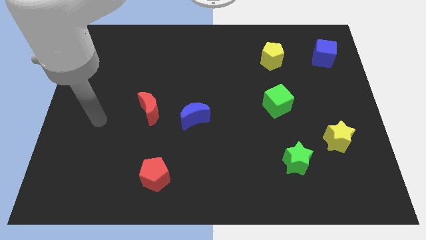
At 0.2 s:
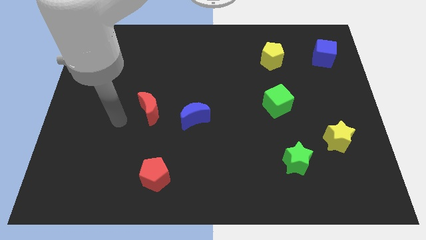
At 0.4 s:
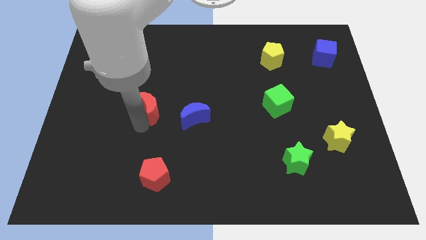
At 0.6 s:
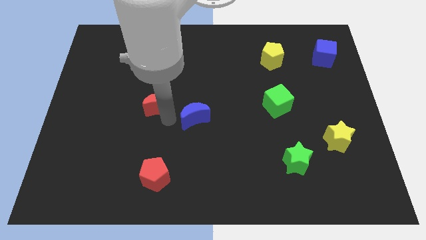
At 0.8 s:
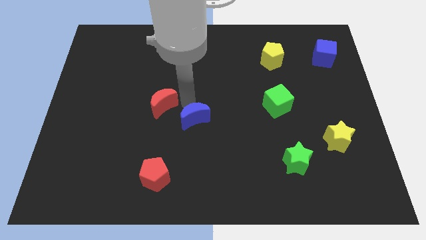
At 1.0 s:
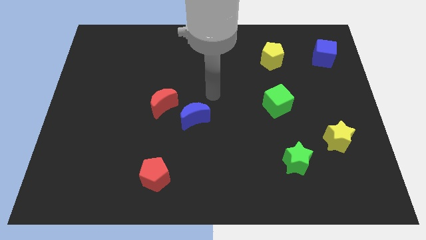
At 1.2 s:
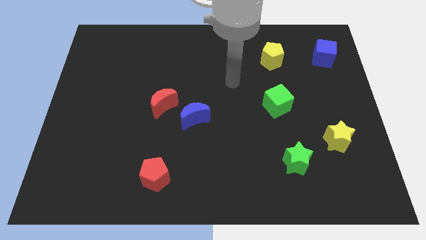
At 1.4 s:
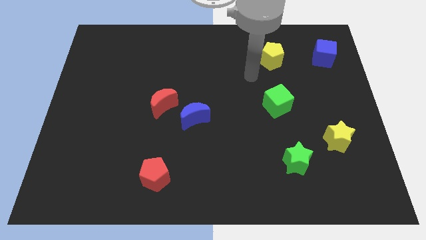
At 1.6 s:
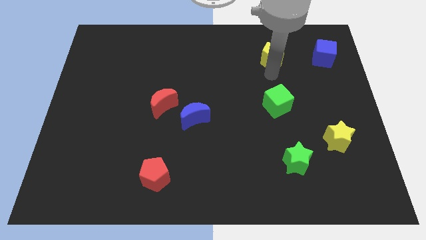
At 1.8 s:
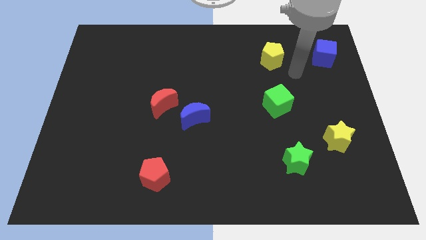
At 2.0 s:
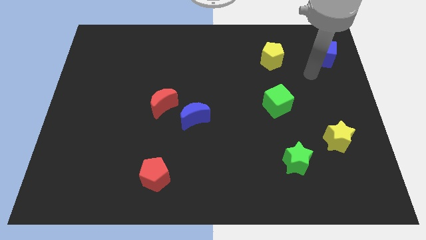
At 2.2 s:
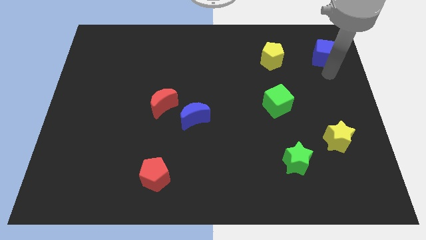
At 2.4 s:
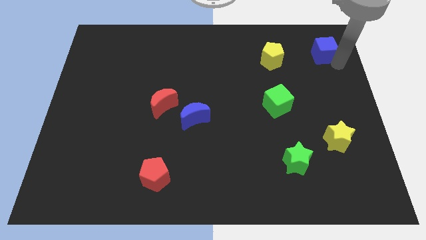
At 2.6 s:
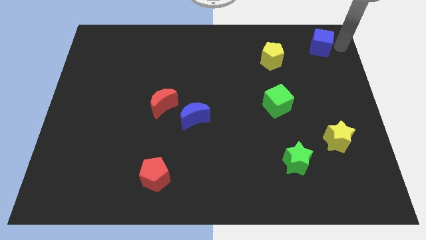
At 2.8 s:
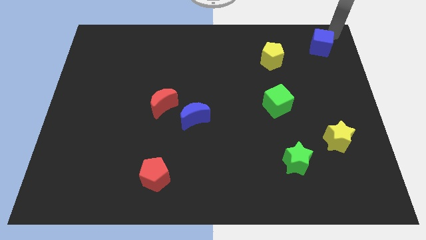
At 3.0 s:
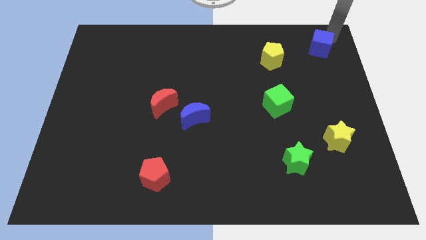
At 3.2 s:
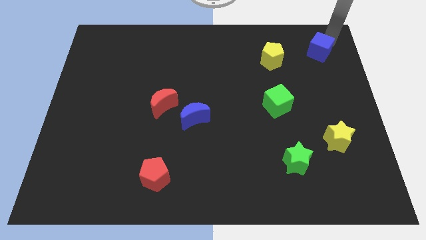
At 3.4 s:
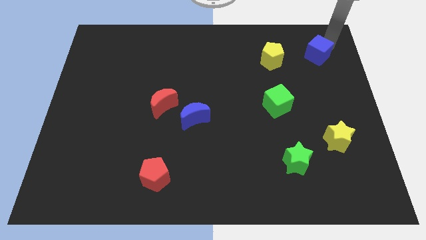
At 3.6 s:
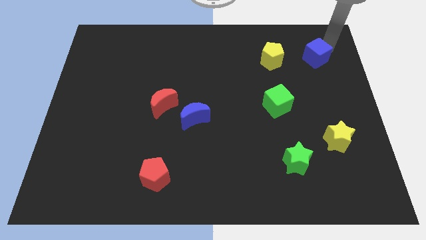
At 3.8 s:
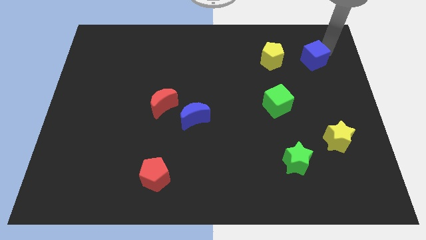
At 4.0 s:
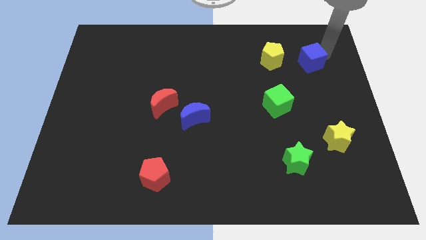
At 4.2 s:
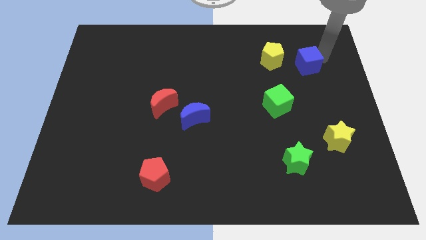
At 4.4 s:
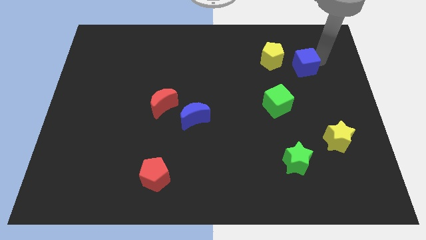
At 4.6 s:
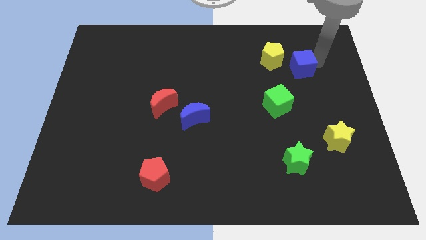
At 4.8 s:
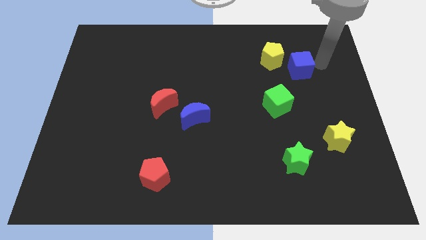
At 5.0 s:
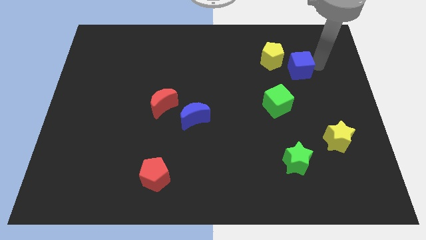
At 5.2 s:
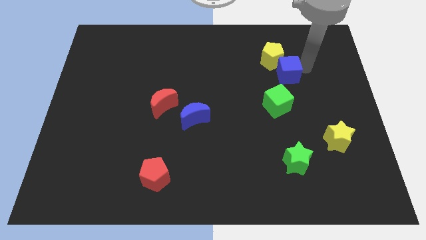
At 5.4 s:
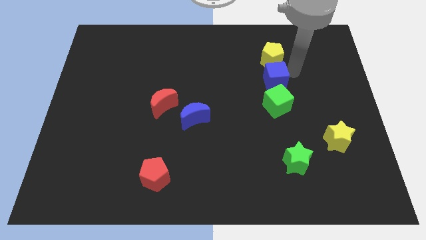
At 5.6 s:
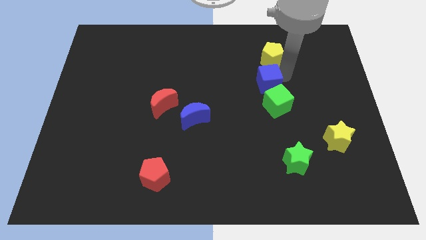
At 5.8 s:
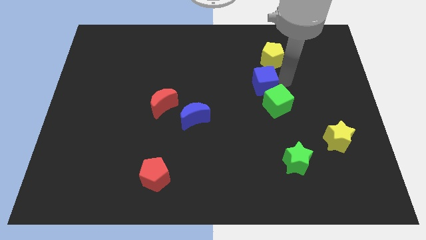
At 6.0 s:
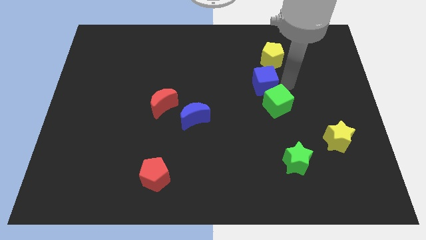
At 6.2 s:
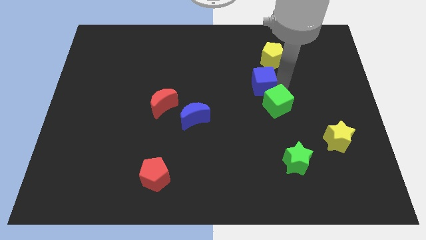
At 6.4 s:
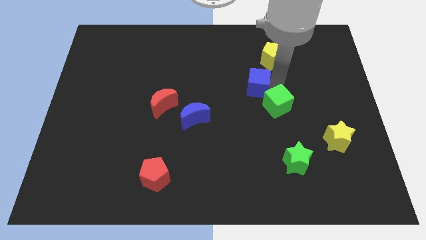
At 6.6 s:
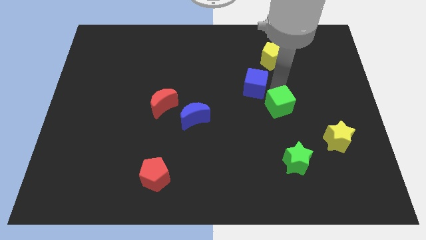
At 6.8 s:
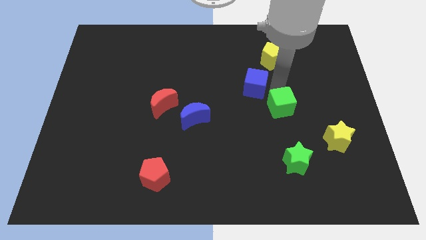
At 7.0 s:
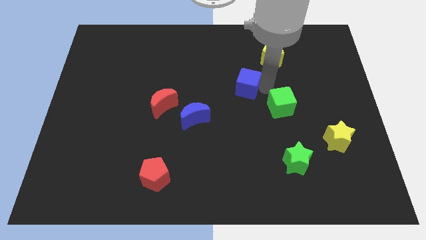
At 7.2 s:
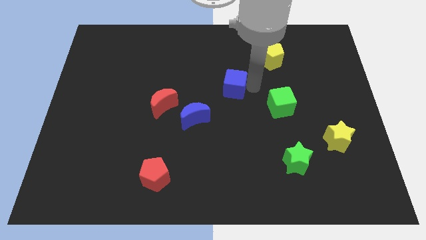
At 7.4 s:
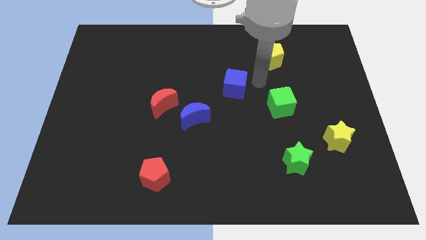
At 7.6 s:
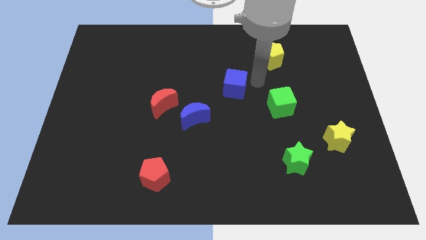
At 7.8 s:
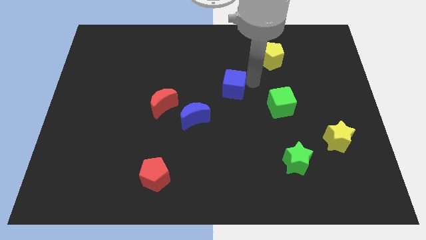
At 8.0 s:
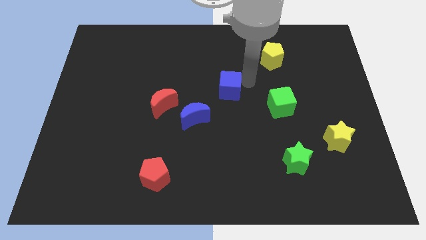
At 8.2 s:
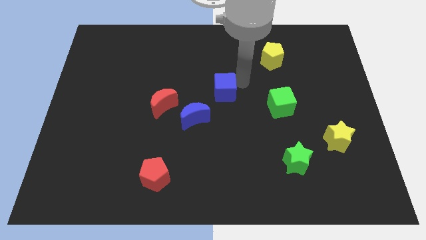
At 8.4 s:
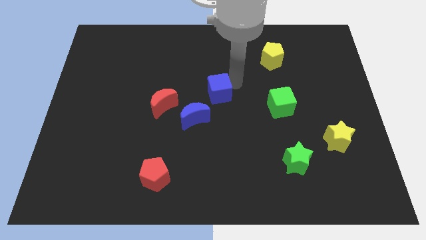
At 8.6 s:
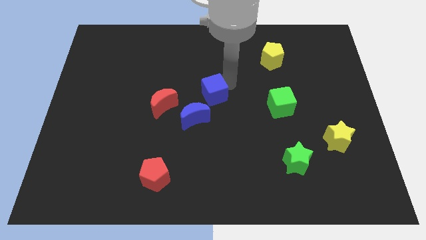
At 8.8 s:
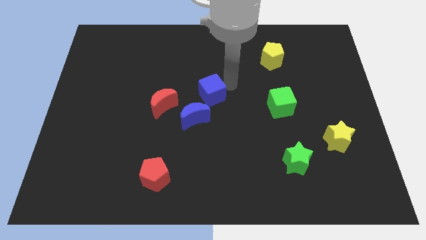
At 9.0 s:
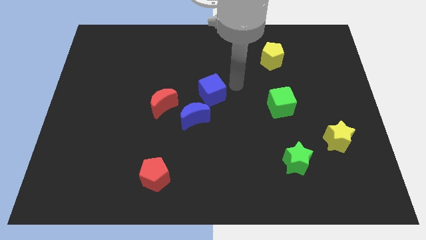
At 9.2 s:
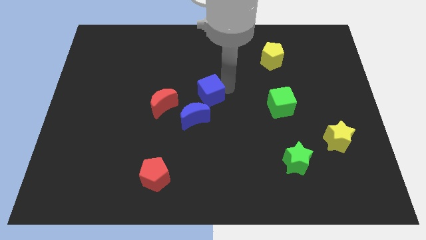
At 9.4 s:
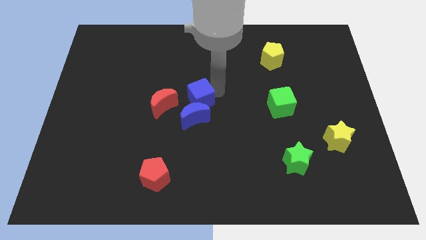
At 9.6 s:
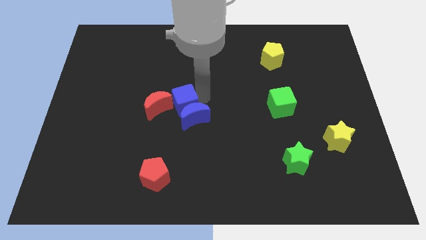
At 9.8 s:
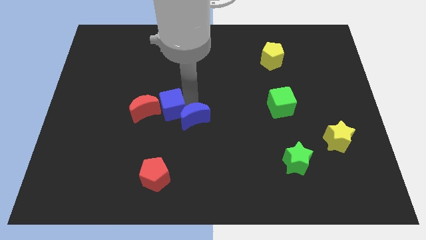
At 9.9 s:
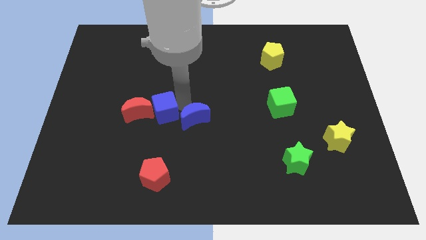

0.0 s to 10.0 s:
push the blue cube close to the red moon

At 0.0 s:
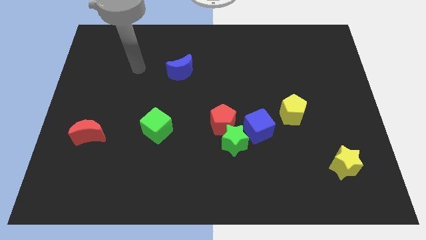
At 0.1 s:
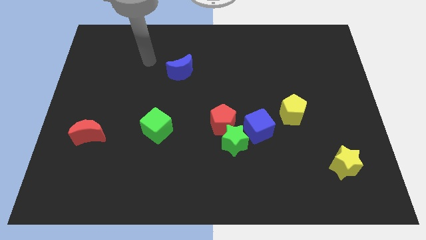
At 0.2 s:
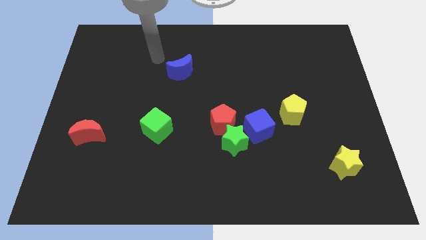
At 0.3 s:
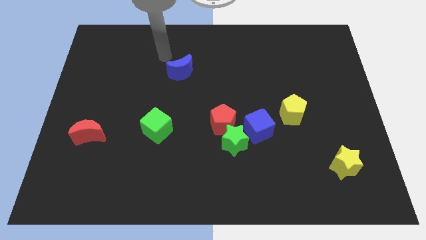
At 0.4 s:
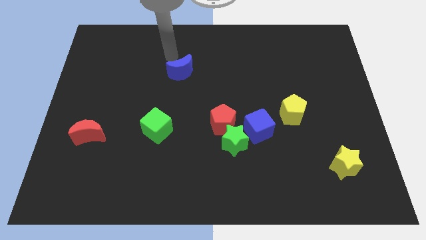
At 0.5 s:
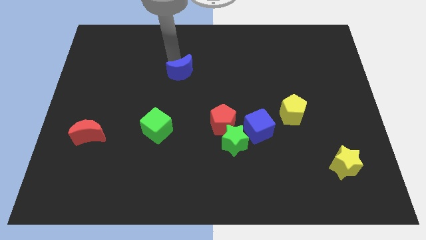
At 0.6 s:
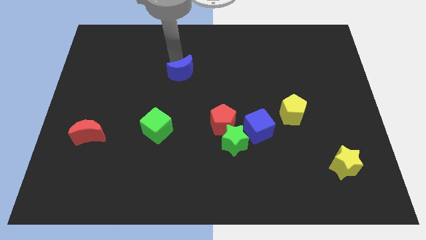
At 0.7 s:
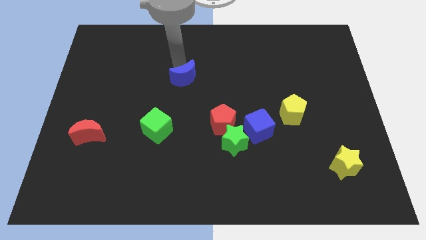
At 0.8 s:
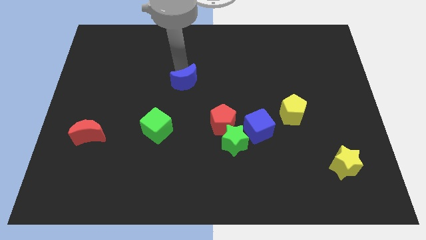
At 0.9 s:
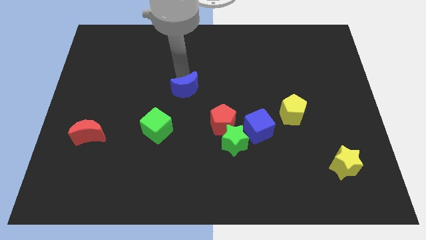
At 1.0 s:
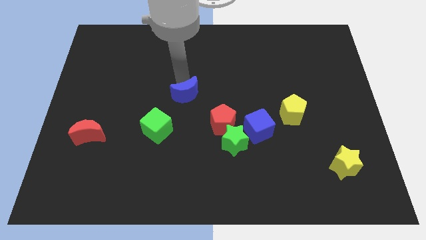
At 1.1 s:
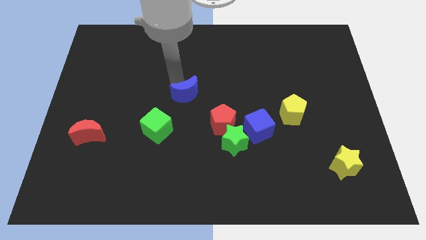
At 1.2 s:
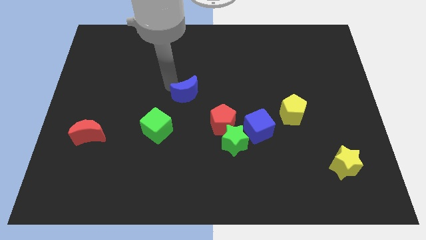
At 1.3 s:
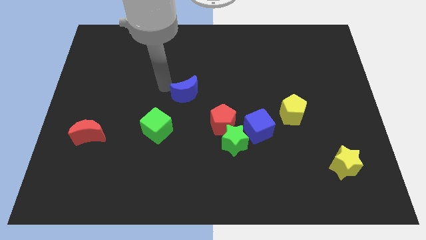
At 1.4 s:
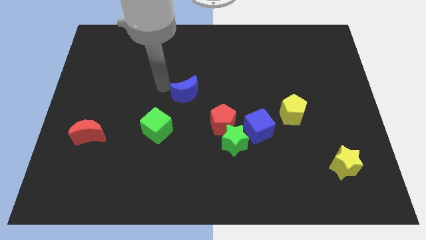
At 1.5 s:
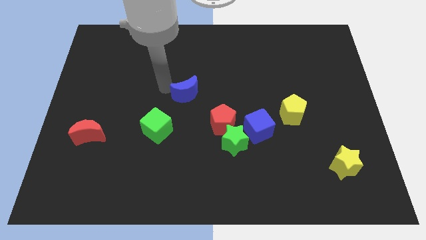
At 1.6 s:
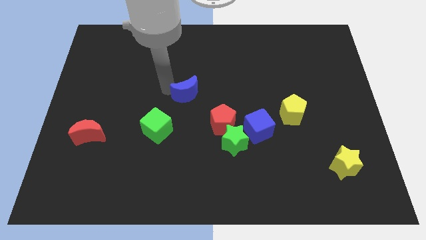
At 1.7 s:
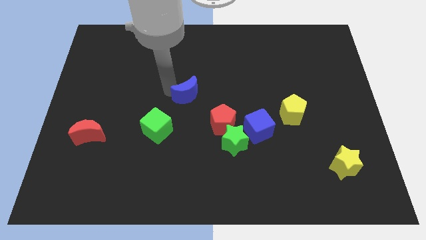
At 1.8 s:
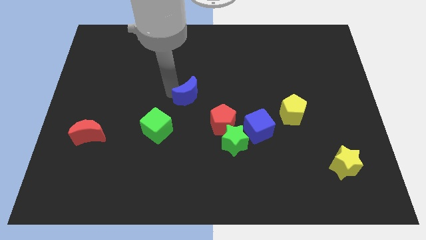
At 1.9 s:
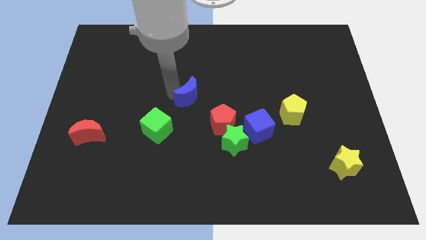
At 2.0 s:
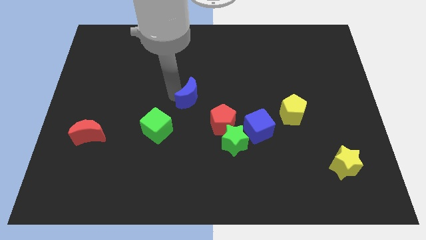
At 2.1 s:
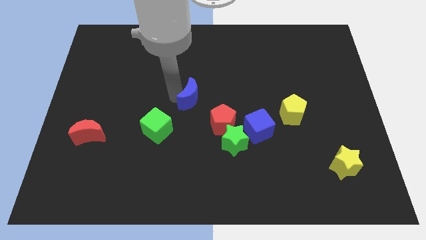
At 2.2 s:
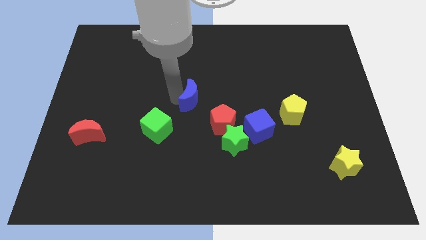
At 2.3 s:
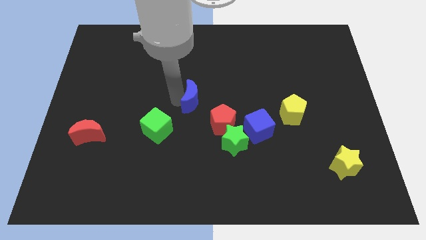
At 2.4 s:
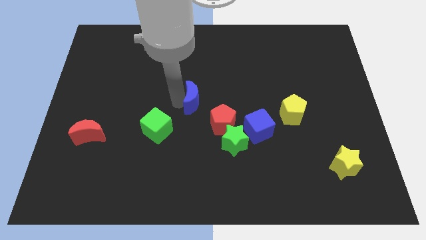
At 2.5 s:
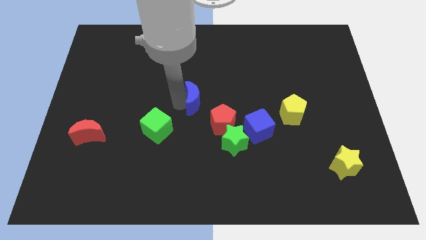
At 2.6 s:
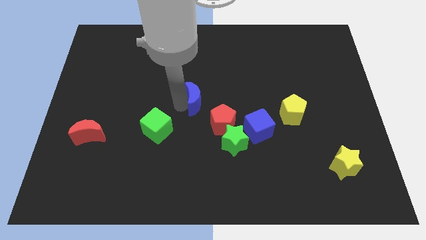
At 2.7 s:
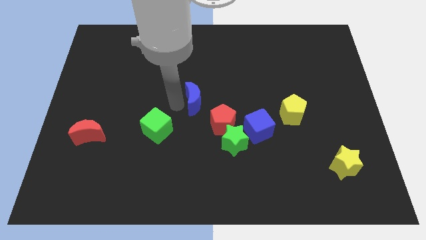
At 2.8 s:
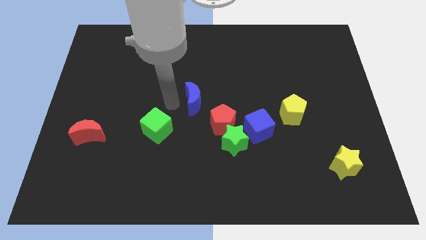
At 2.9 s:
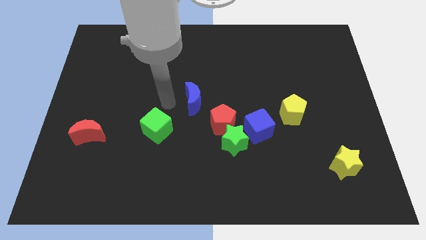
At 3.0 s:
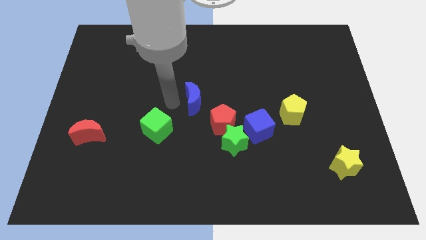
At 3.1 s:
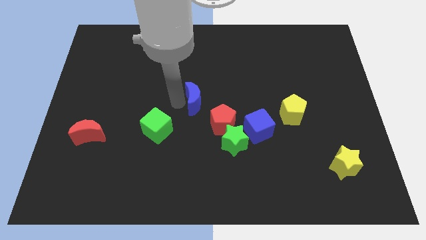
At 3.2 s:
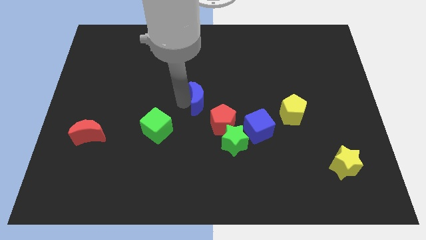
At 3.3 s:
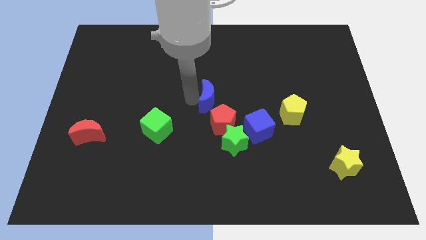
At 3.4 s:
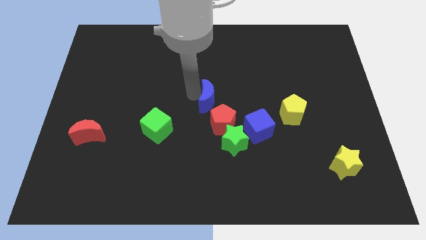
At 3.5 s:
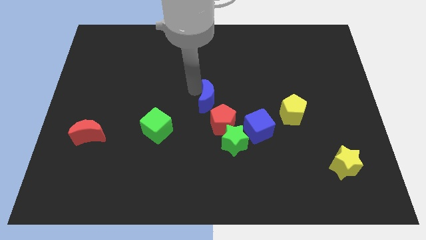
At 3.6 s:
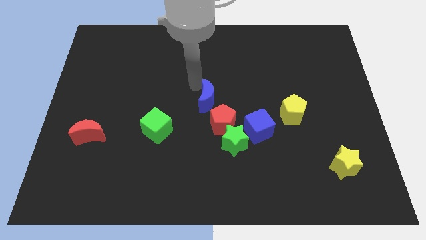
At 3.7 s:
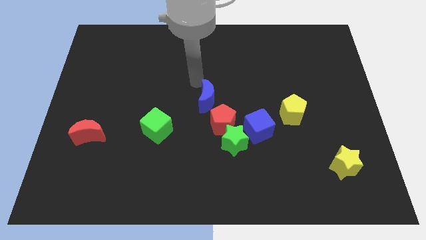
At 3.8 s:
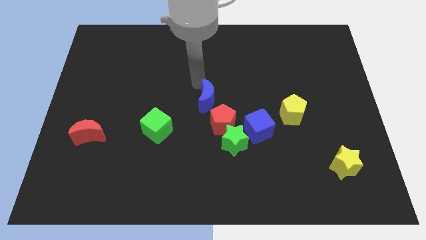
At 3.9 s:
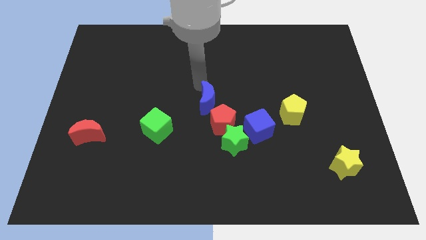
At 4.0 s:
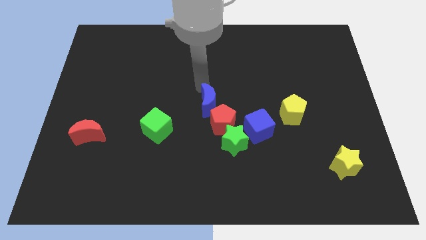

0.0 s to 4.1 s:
put the blue moon to the red pentagon
